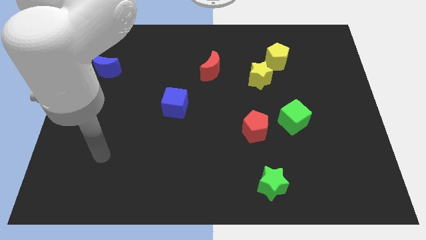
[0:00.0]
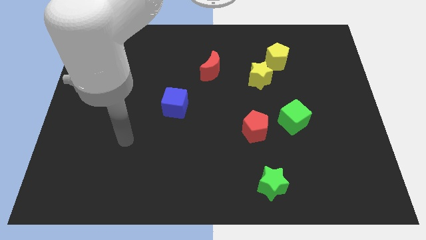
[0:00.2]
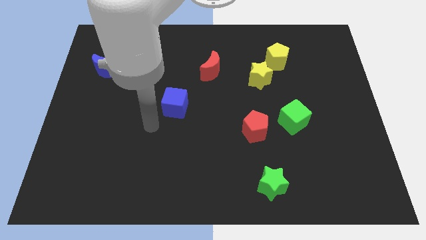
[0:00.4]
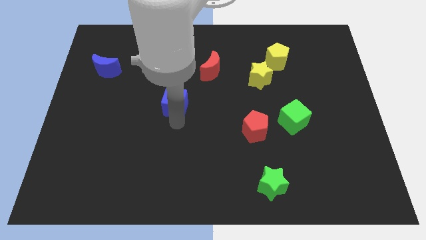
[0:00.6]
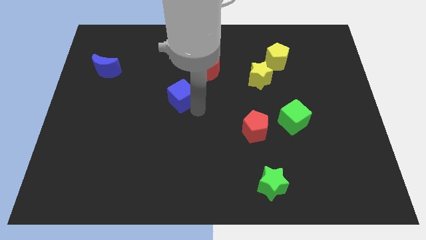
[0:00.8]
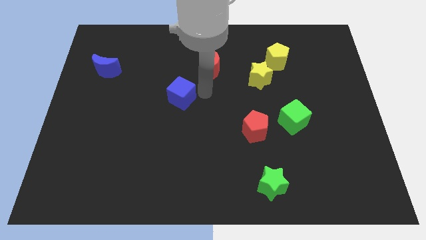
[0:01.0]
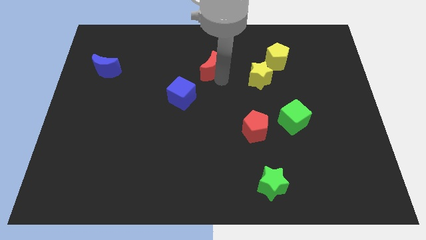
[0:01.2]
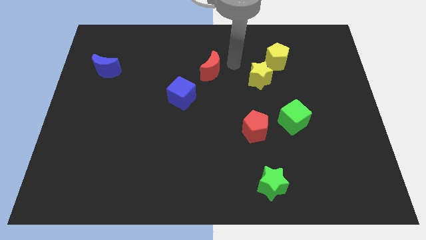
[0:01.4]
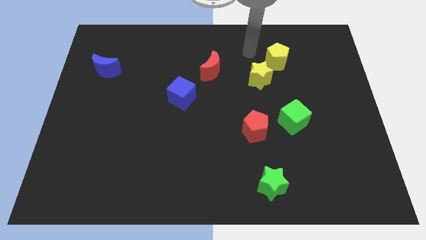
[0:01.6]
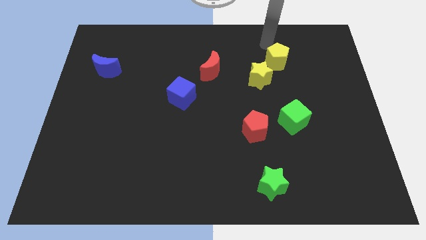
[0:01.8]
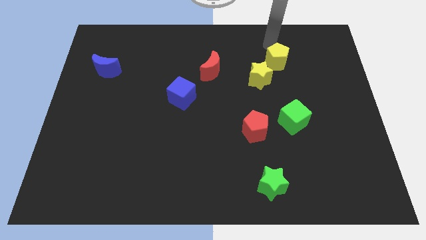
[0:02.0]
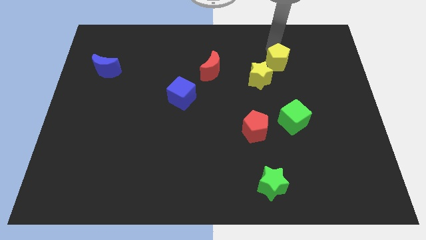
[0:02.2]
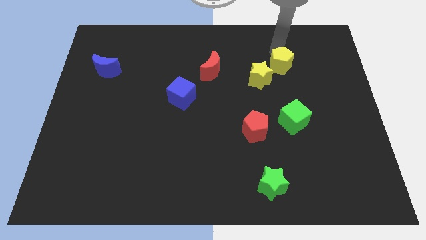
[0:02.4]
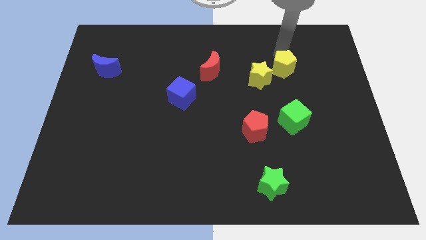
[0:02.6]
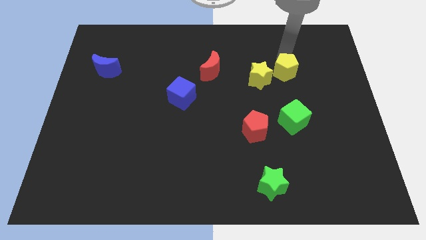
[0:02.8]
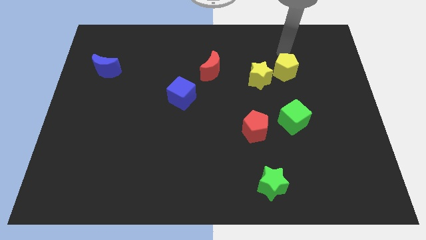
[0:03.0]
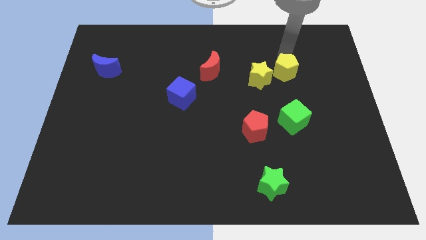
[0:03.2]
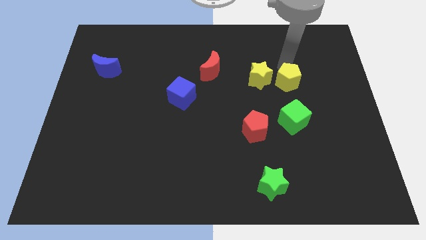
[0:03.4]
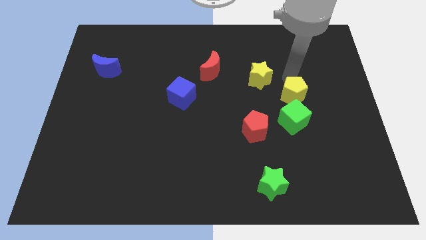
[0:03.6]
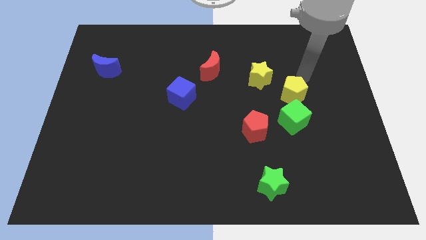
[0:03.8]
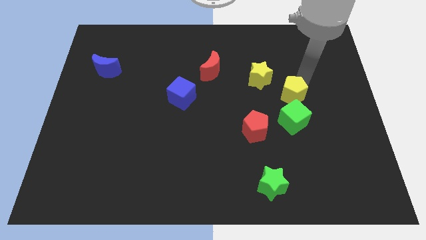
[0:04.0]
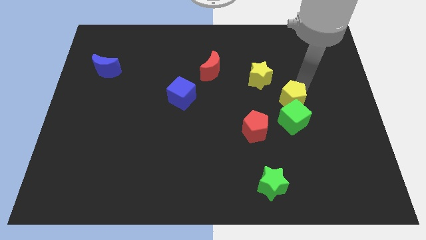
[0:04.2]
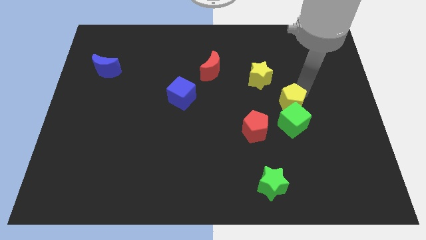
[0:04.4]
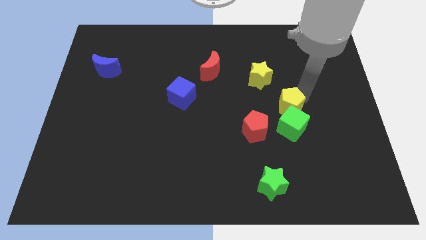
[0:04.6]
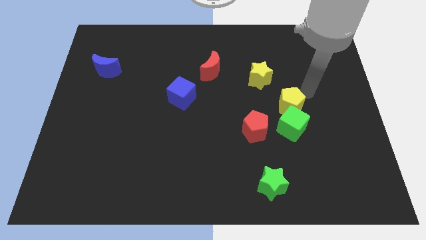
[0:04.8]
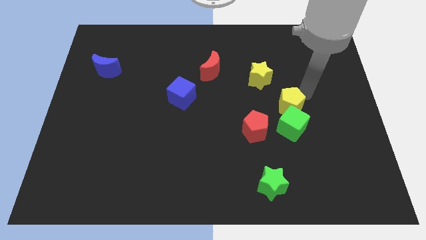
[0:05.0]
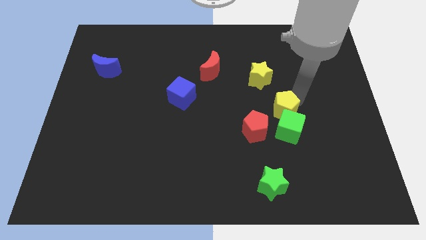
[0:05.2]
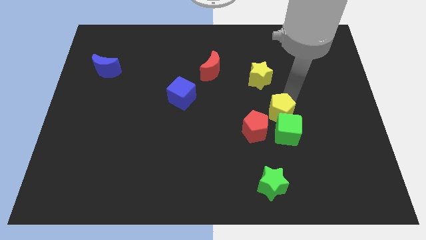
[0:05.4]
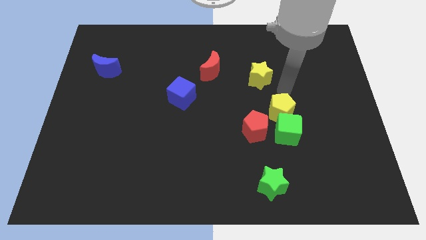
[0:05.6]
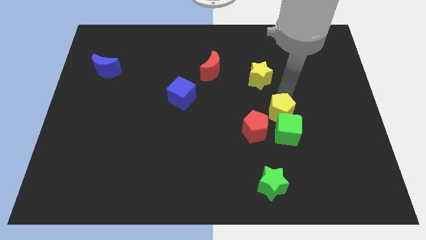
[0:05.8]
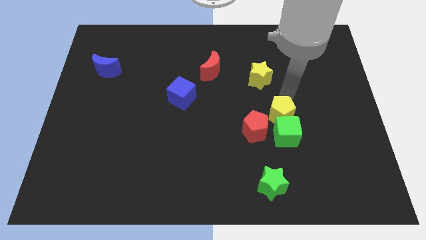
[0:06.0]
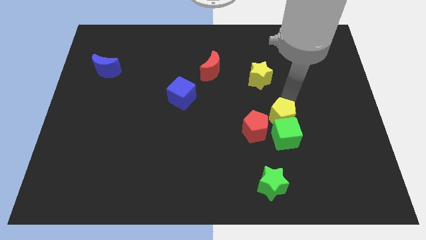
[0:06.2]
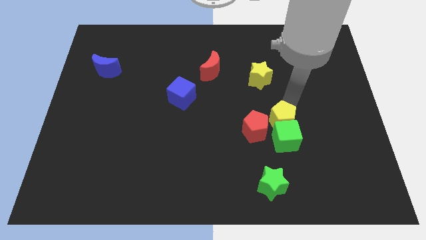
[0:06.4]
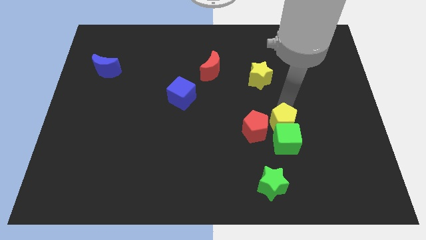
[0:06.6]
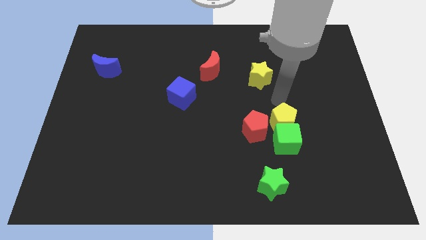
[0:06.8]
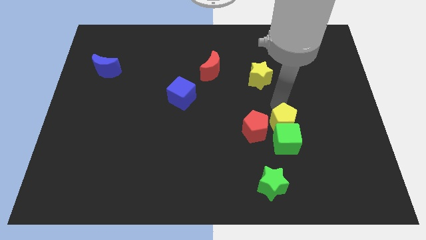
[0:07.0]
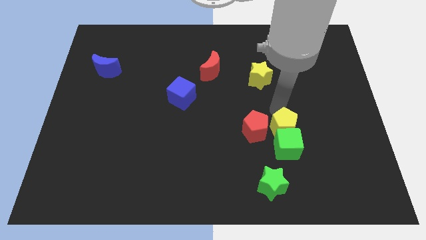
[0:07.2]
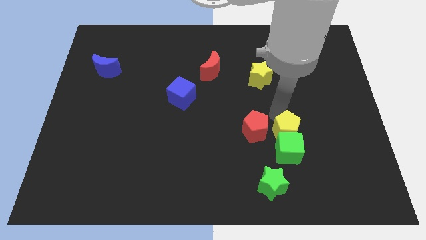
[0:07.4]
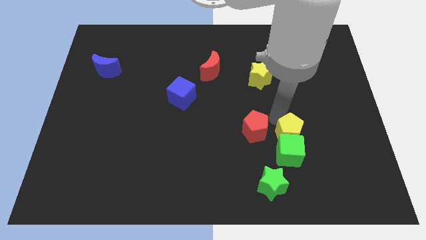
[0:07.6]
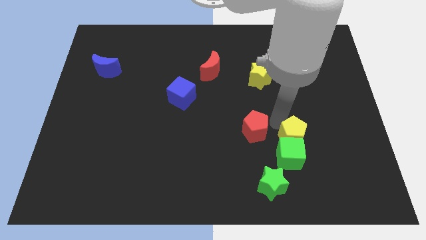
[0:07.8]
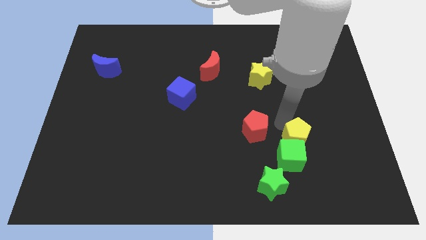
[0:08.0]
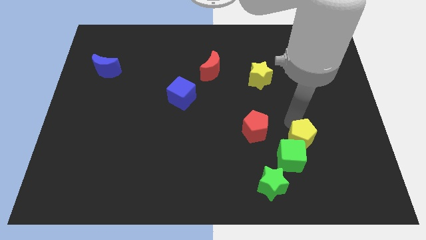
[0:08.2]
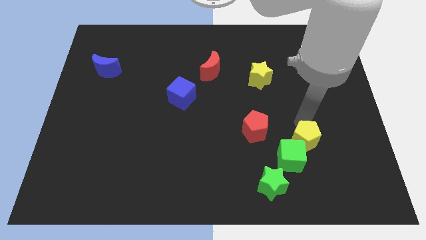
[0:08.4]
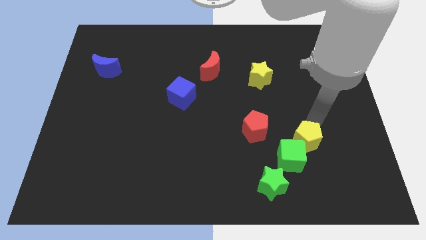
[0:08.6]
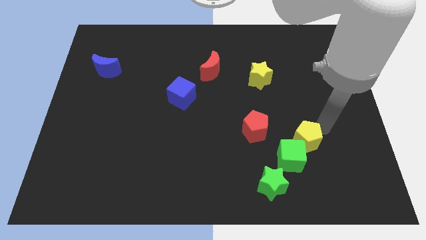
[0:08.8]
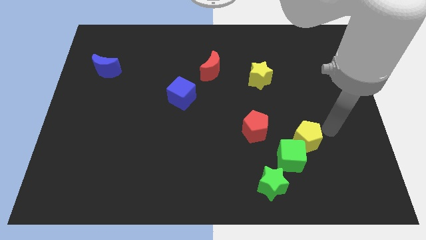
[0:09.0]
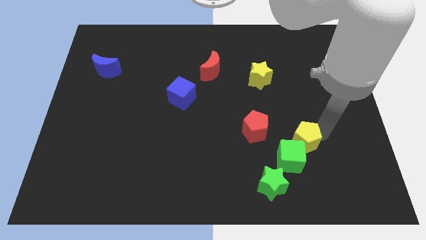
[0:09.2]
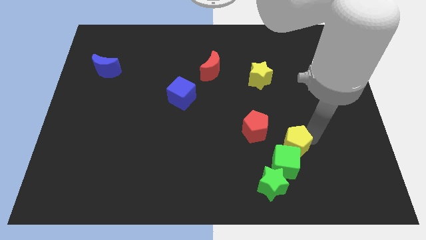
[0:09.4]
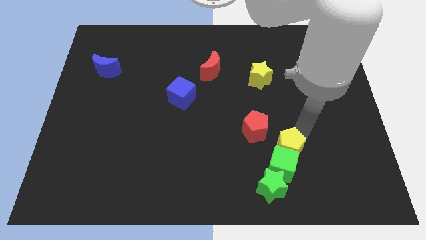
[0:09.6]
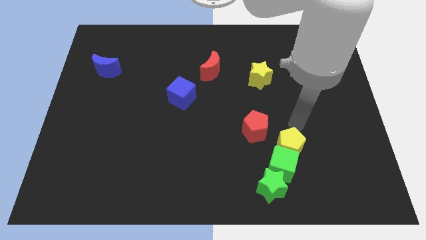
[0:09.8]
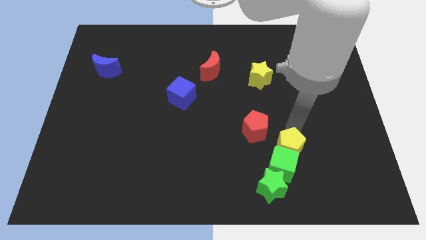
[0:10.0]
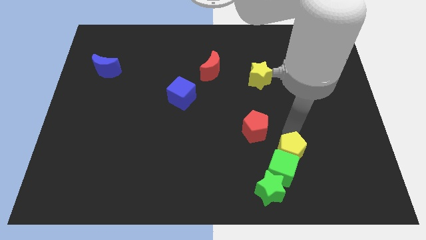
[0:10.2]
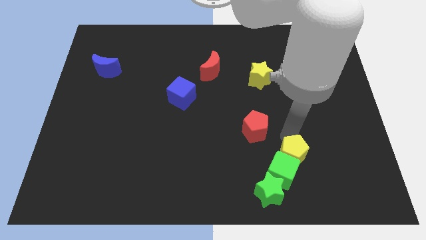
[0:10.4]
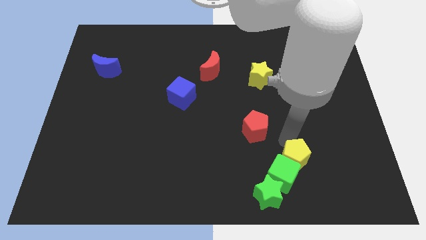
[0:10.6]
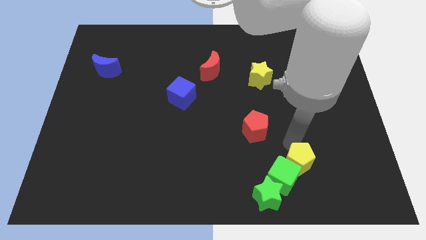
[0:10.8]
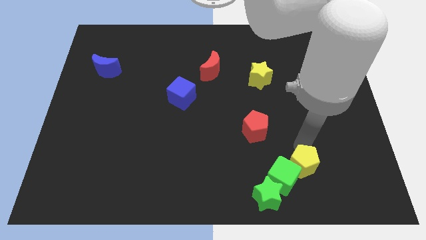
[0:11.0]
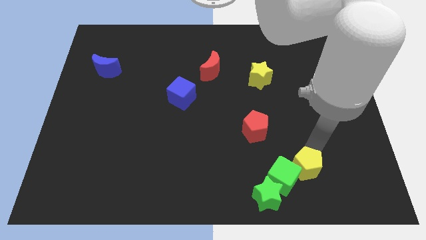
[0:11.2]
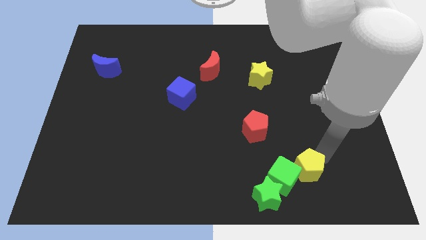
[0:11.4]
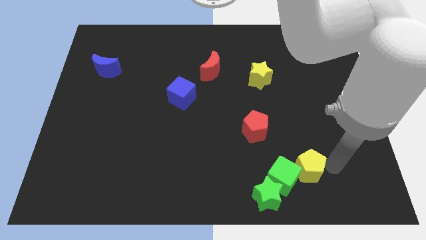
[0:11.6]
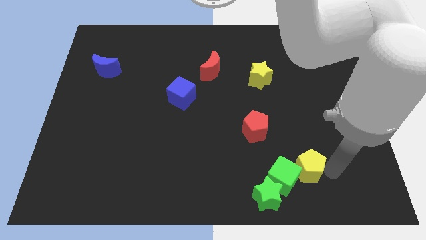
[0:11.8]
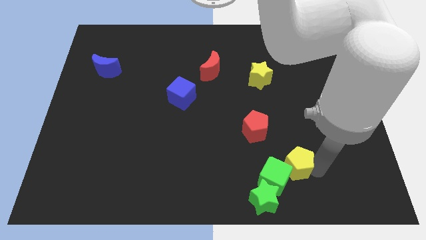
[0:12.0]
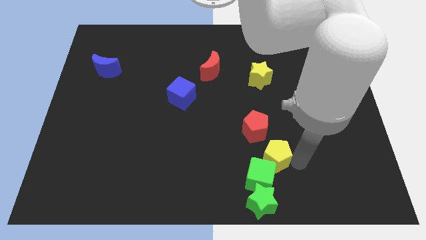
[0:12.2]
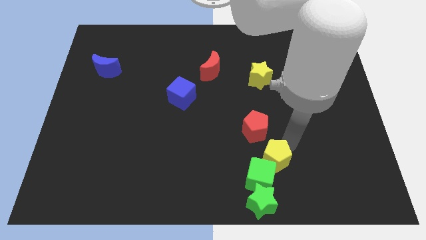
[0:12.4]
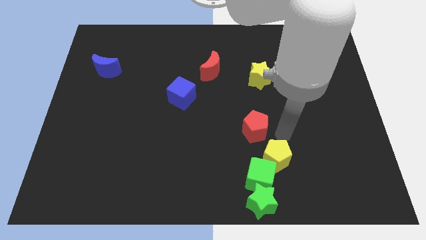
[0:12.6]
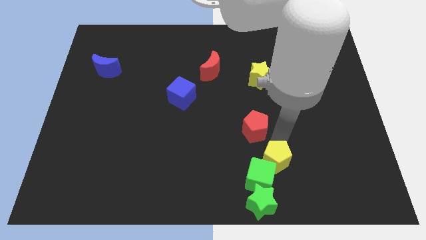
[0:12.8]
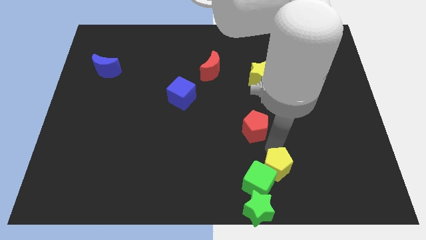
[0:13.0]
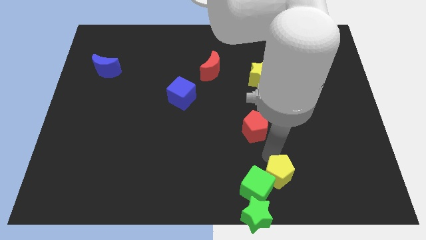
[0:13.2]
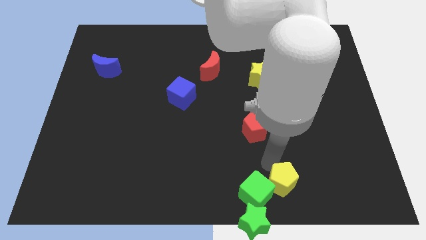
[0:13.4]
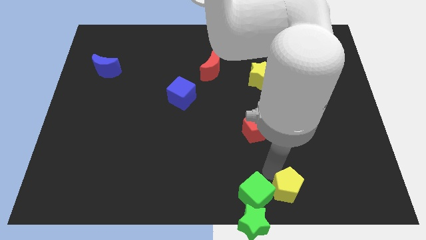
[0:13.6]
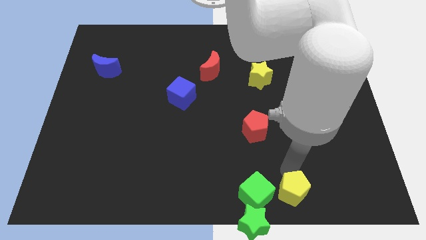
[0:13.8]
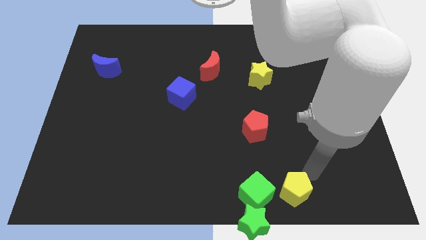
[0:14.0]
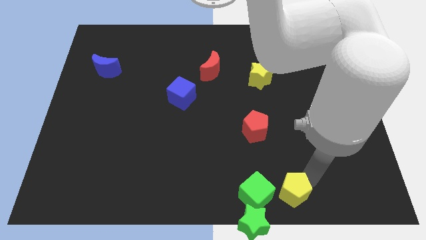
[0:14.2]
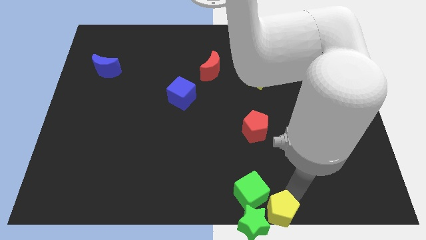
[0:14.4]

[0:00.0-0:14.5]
slide the yellow pentagon next to the green star
